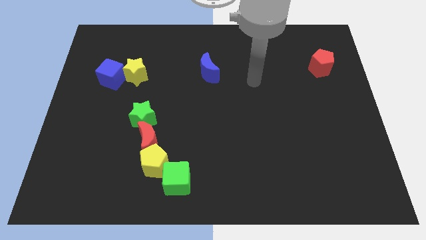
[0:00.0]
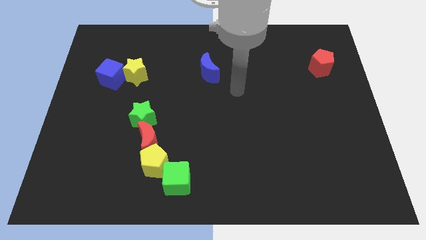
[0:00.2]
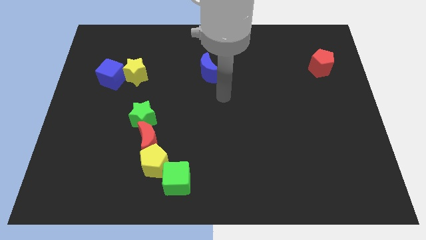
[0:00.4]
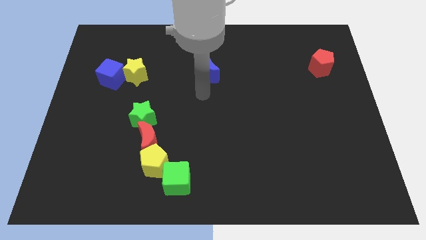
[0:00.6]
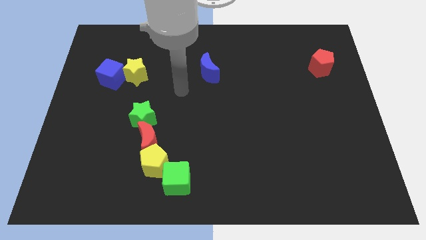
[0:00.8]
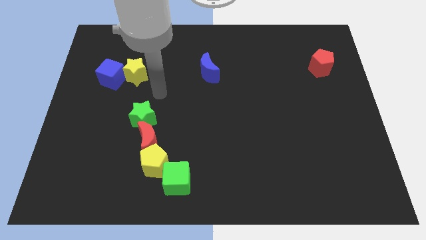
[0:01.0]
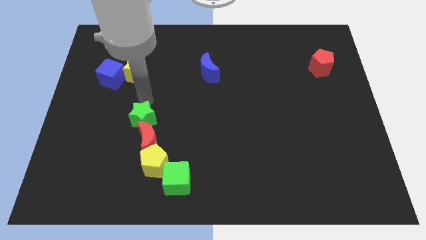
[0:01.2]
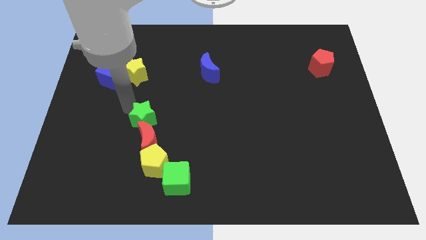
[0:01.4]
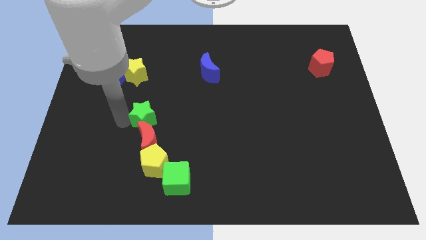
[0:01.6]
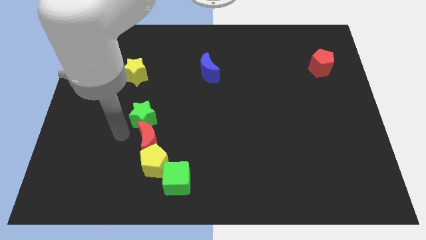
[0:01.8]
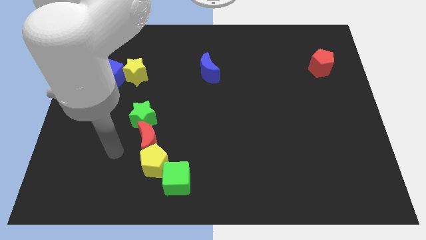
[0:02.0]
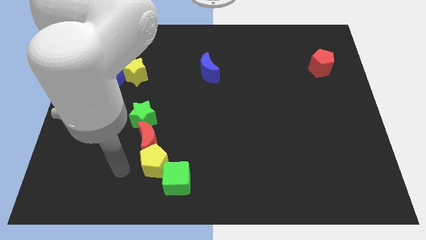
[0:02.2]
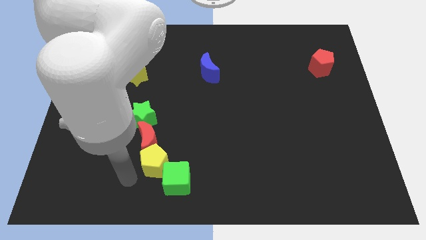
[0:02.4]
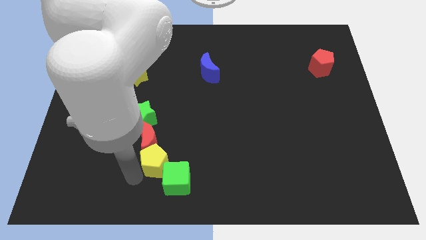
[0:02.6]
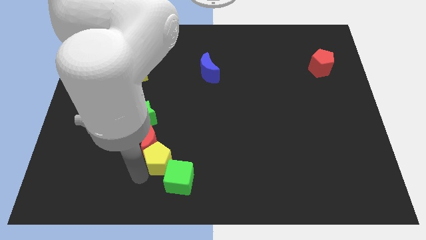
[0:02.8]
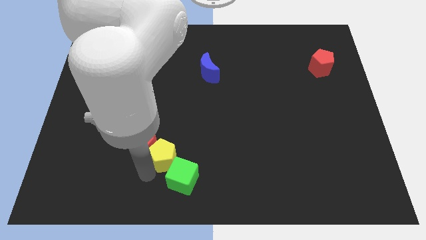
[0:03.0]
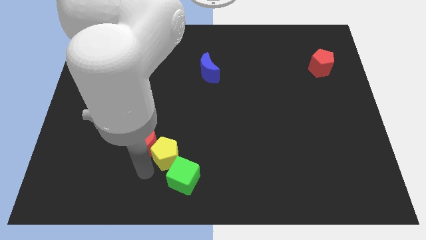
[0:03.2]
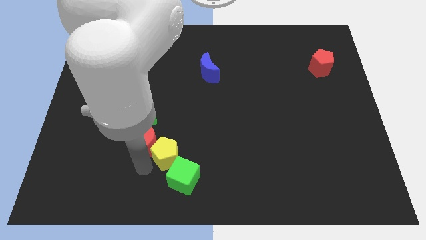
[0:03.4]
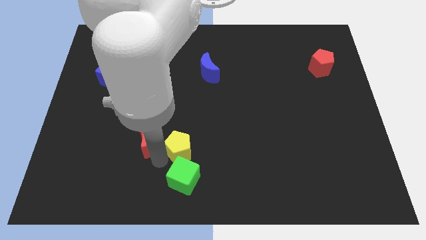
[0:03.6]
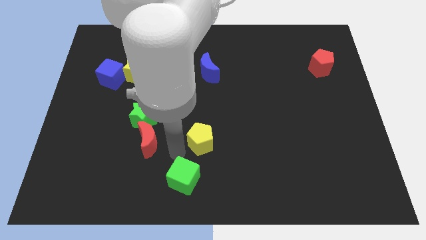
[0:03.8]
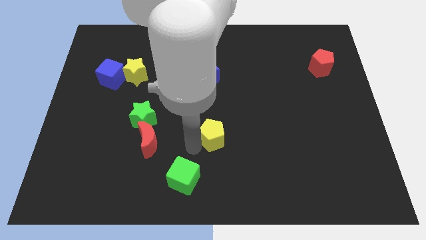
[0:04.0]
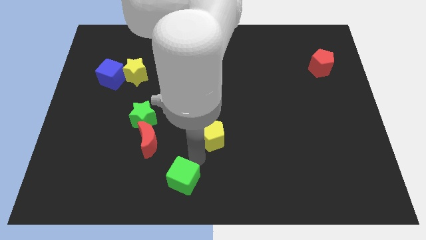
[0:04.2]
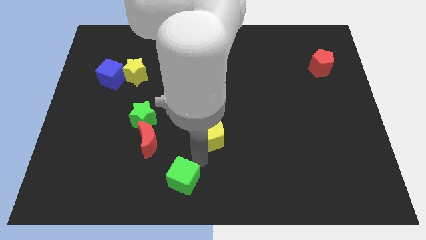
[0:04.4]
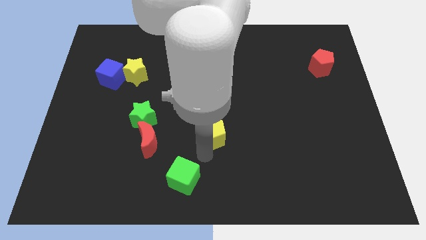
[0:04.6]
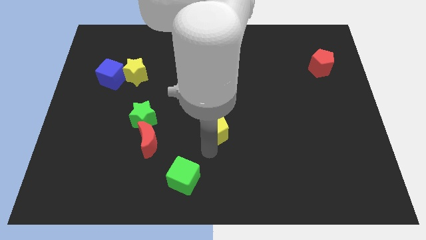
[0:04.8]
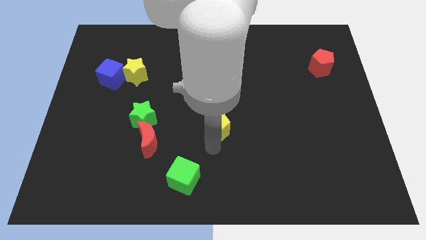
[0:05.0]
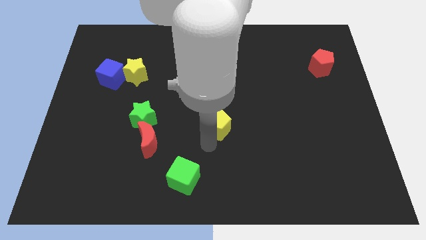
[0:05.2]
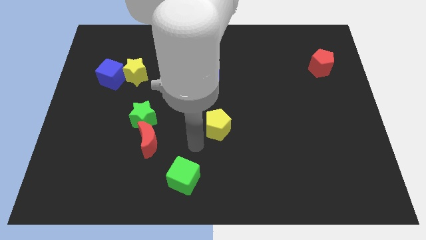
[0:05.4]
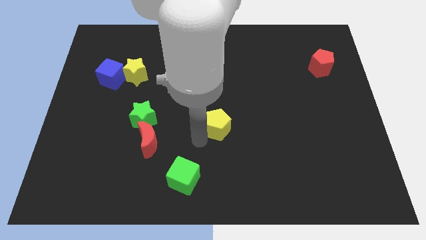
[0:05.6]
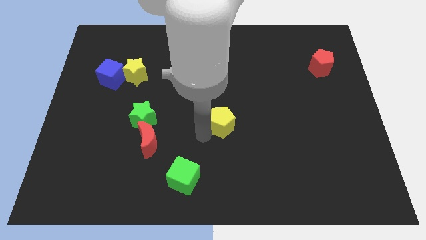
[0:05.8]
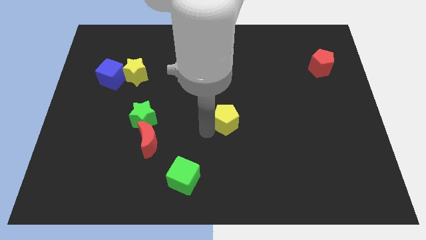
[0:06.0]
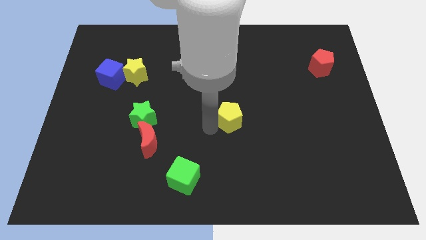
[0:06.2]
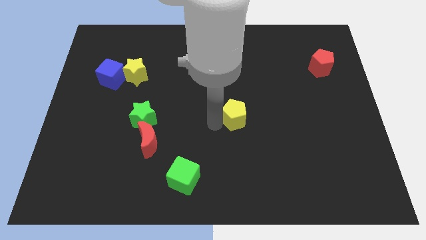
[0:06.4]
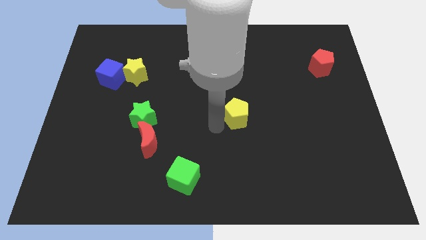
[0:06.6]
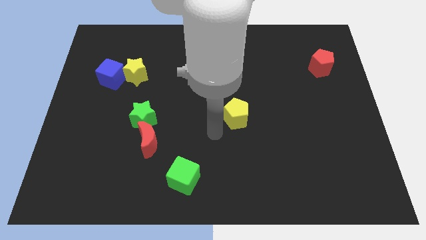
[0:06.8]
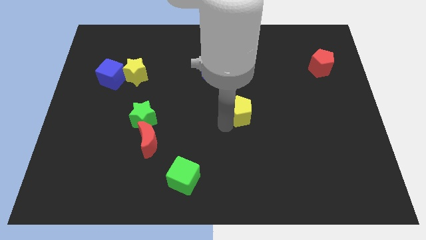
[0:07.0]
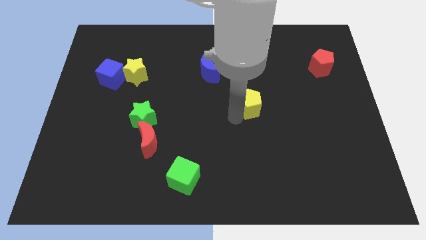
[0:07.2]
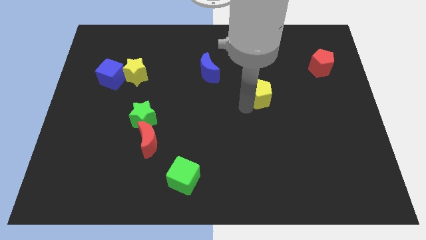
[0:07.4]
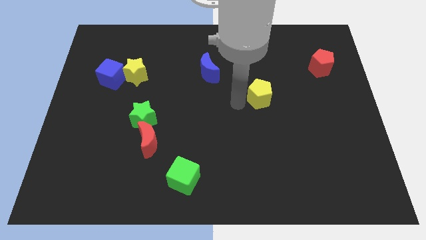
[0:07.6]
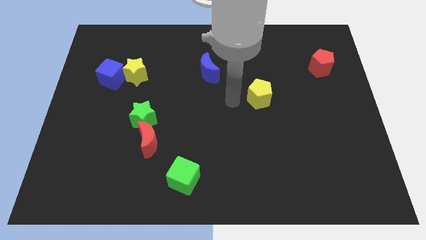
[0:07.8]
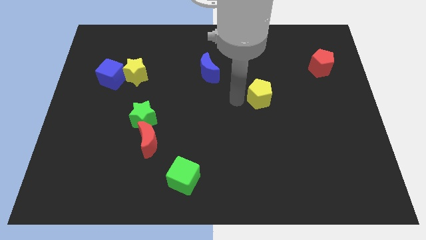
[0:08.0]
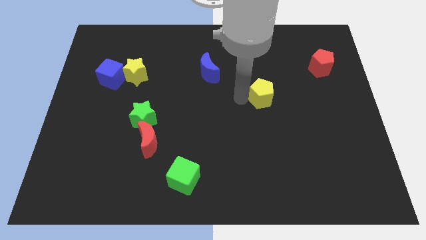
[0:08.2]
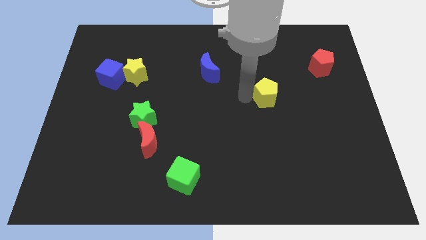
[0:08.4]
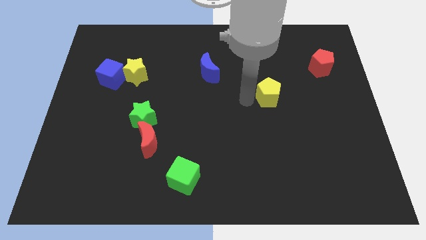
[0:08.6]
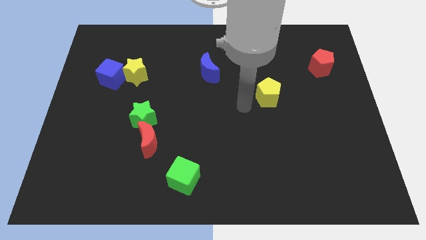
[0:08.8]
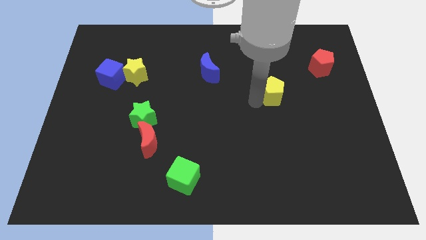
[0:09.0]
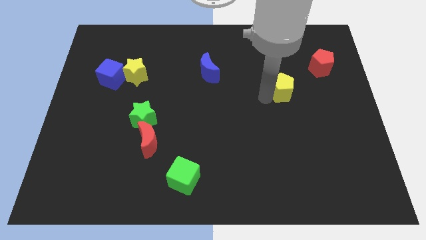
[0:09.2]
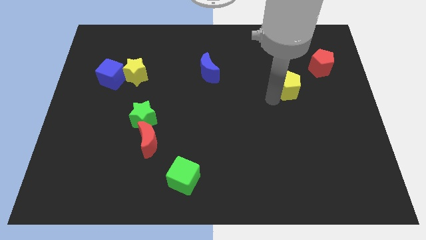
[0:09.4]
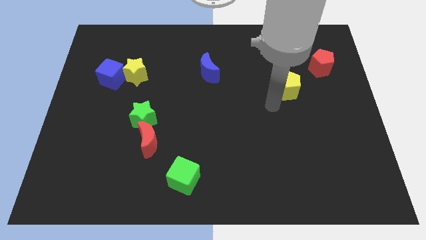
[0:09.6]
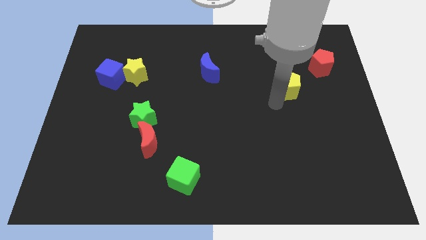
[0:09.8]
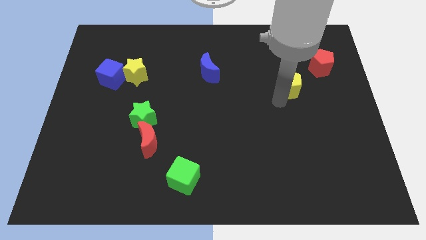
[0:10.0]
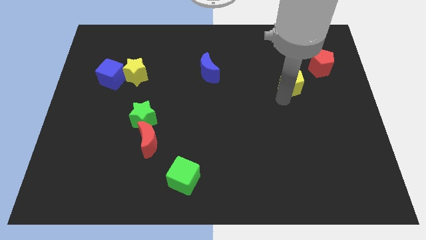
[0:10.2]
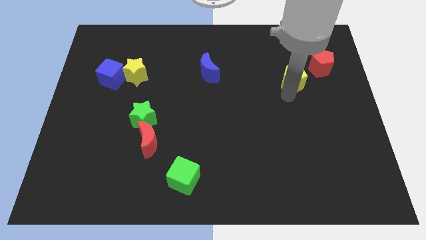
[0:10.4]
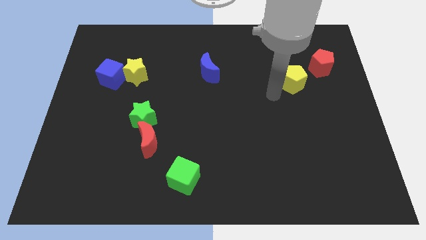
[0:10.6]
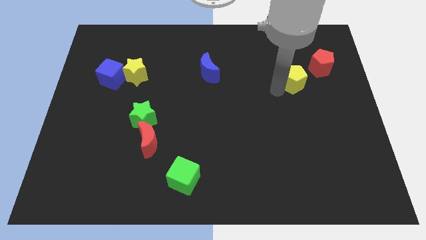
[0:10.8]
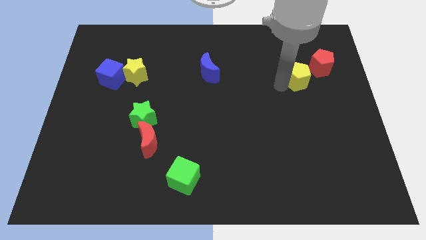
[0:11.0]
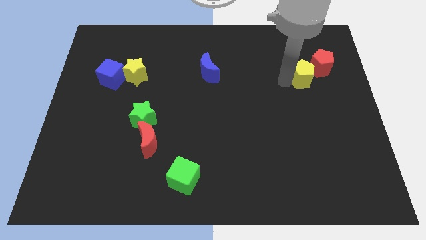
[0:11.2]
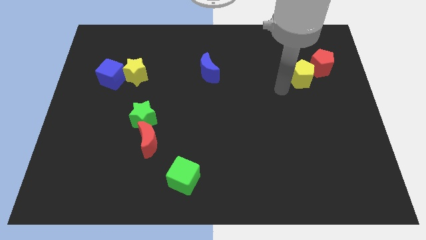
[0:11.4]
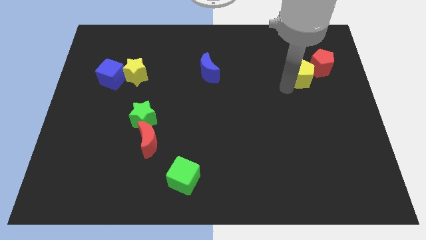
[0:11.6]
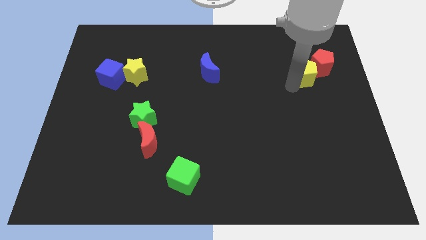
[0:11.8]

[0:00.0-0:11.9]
push the yellow pentagon towards the red pentagon

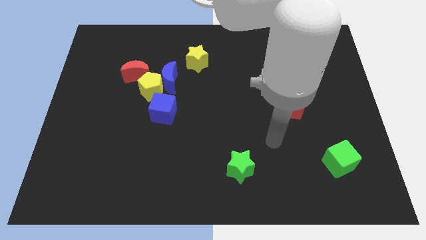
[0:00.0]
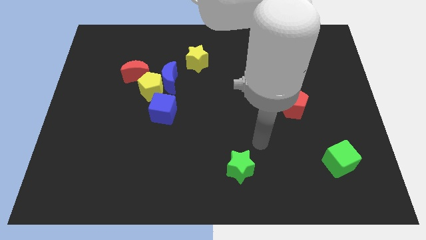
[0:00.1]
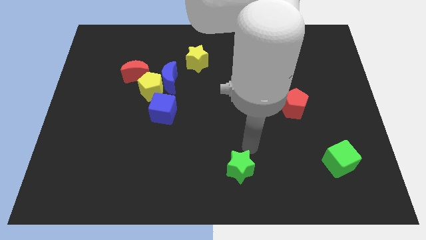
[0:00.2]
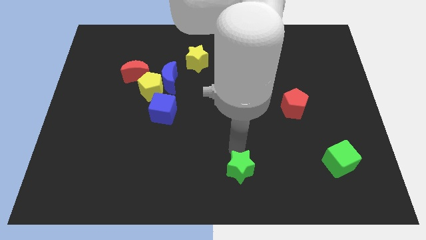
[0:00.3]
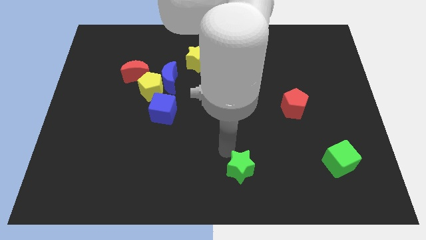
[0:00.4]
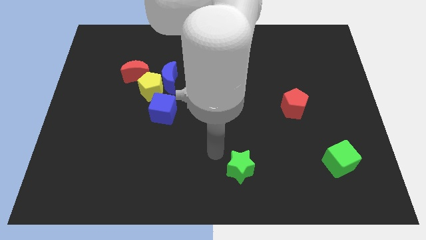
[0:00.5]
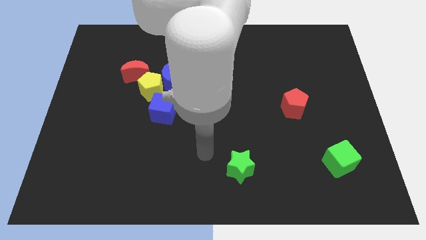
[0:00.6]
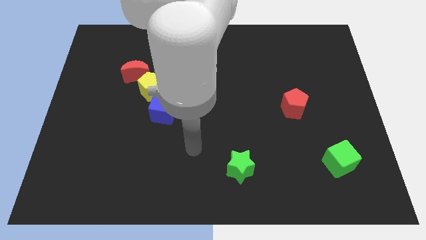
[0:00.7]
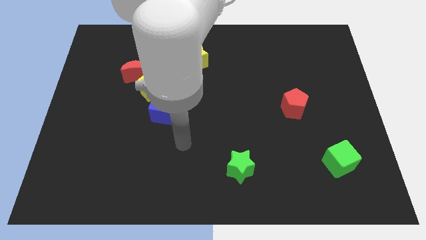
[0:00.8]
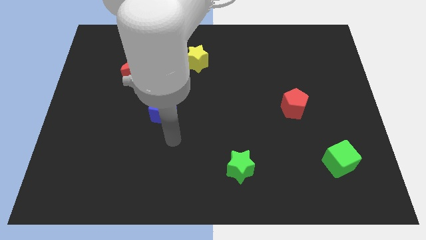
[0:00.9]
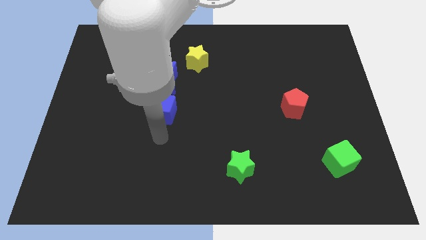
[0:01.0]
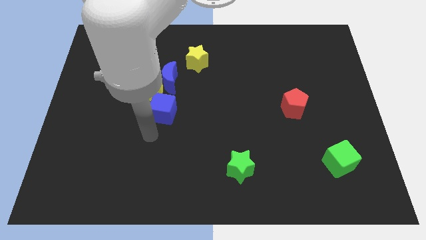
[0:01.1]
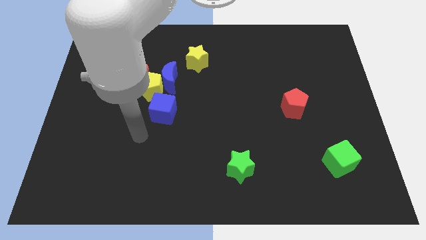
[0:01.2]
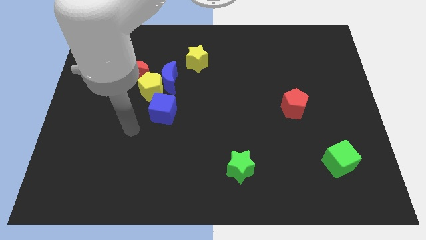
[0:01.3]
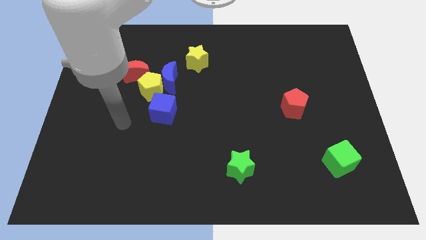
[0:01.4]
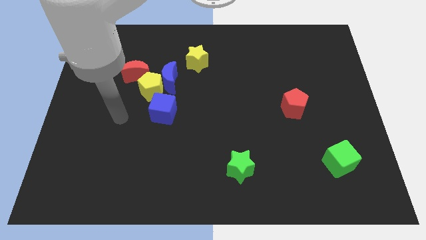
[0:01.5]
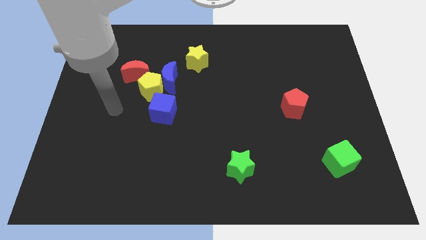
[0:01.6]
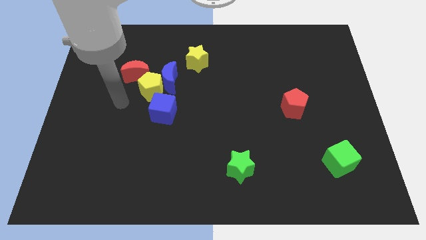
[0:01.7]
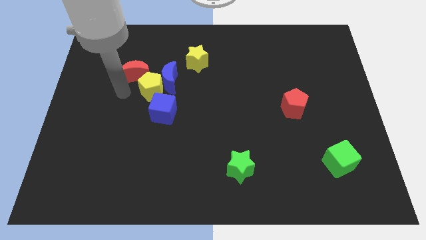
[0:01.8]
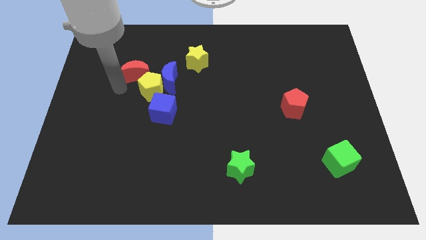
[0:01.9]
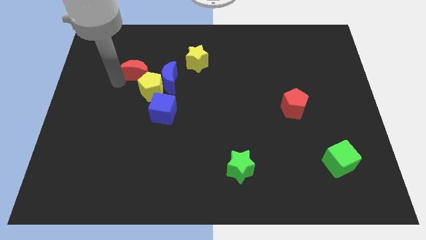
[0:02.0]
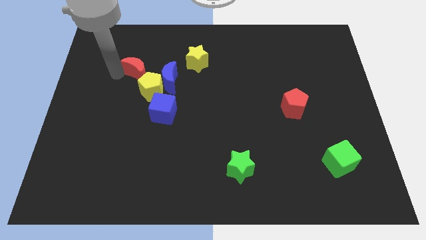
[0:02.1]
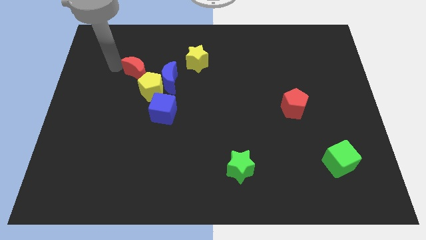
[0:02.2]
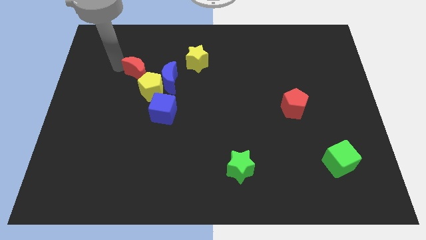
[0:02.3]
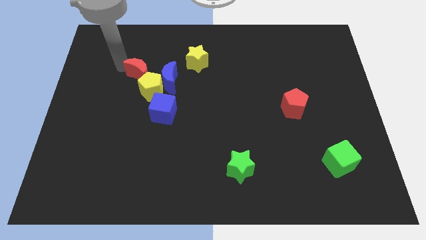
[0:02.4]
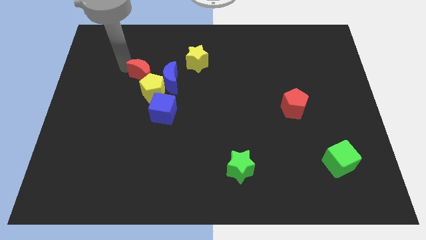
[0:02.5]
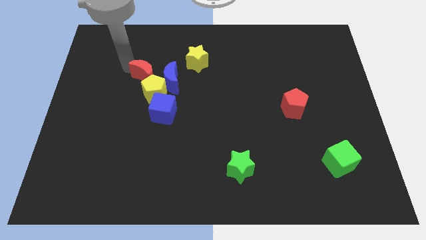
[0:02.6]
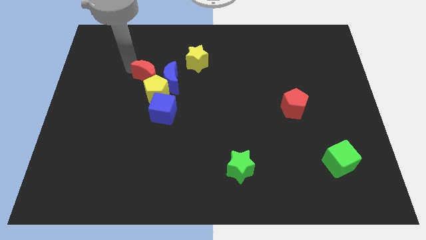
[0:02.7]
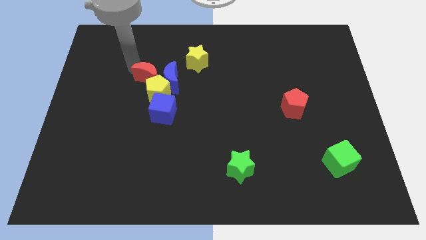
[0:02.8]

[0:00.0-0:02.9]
move the red moon towards the blue moon

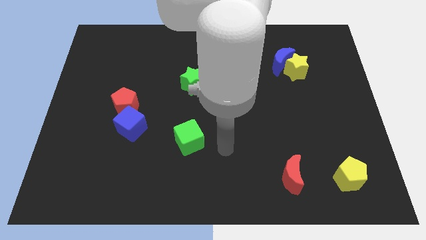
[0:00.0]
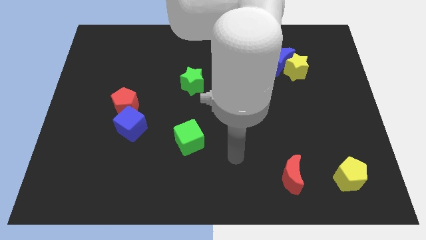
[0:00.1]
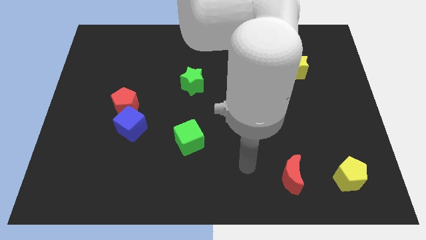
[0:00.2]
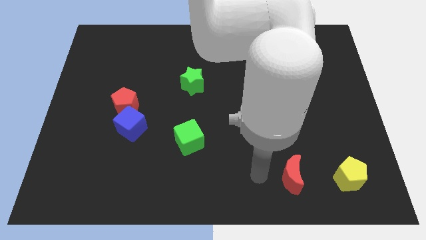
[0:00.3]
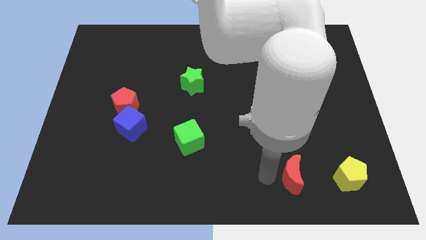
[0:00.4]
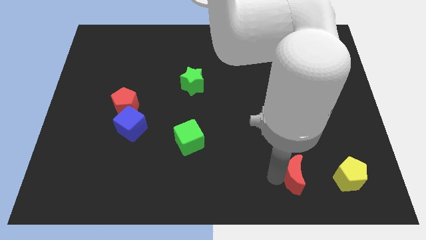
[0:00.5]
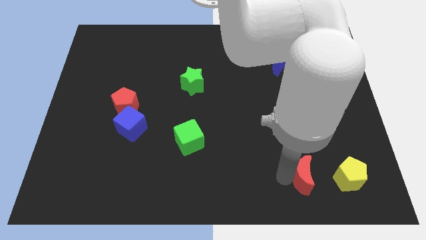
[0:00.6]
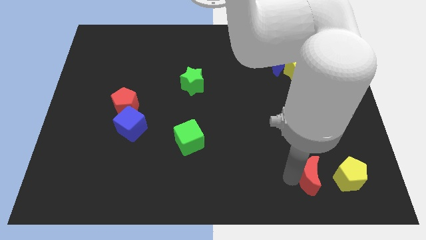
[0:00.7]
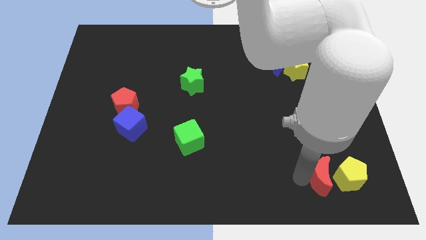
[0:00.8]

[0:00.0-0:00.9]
push the red moon next to the yellow pentagon
